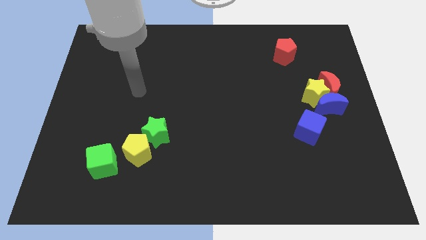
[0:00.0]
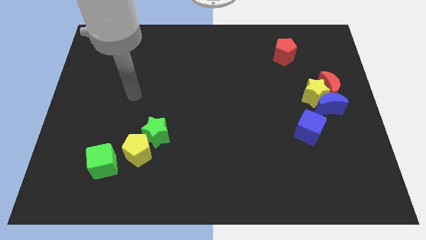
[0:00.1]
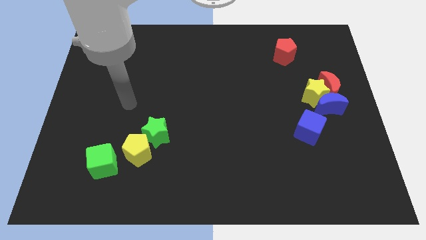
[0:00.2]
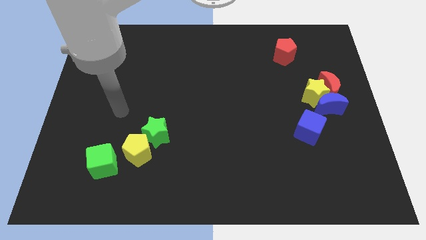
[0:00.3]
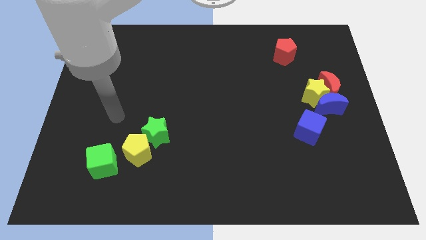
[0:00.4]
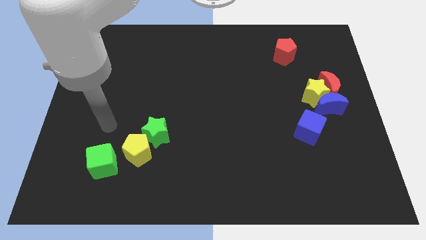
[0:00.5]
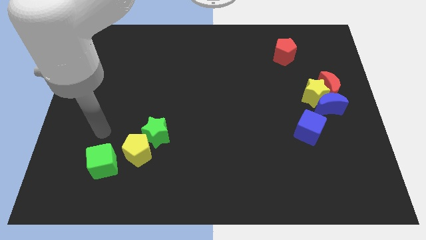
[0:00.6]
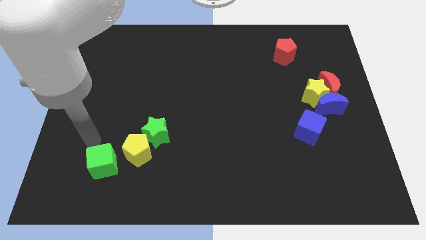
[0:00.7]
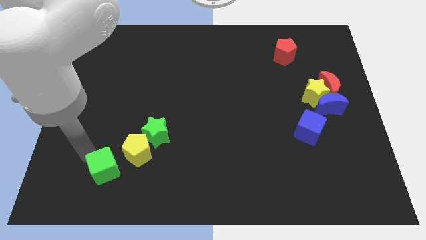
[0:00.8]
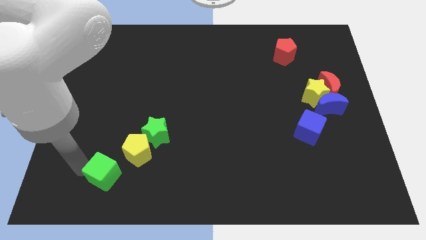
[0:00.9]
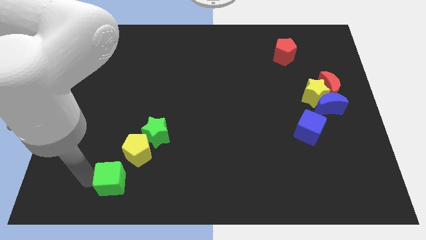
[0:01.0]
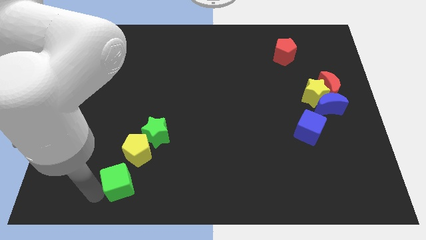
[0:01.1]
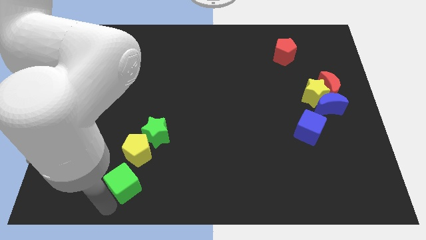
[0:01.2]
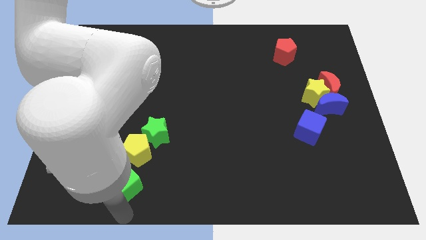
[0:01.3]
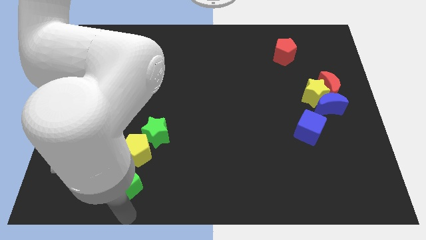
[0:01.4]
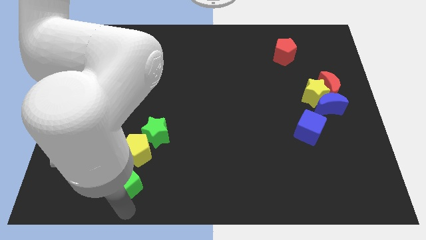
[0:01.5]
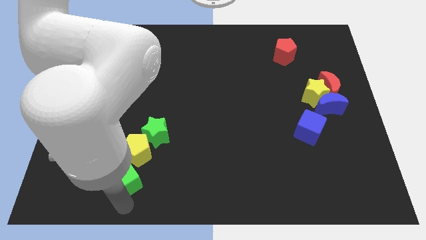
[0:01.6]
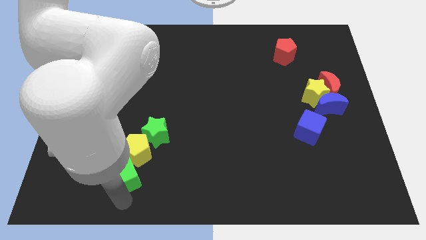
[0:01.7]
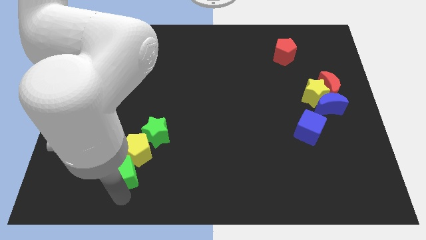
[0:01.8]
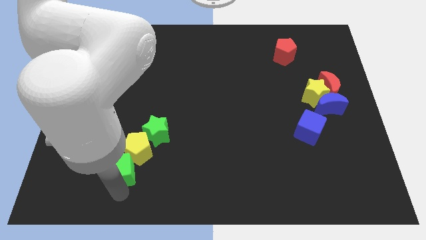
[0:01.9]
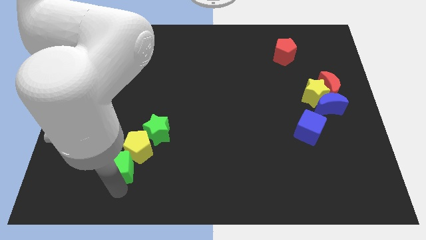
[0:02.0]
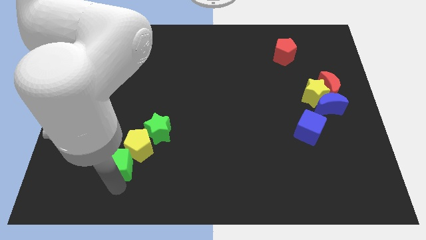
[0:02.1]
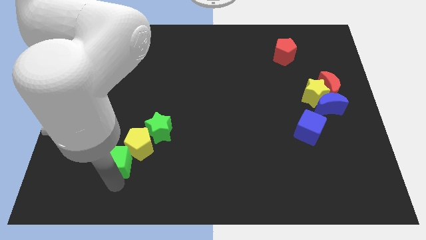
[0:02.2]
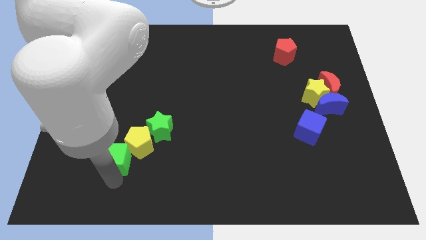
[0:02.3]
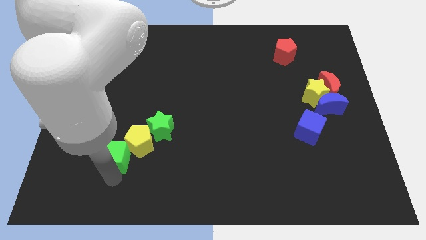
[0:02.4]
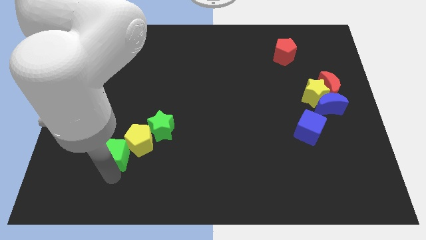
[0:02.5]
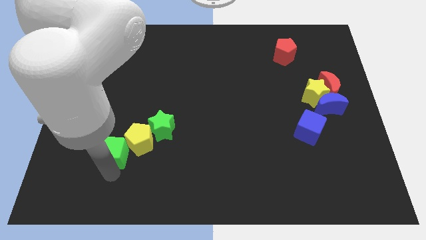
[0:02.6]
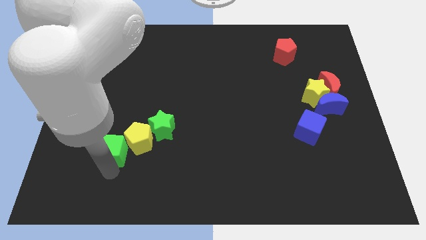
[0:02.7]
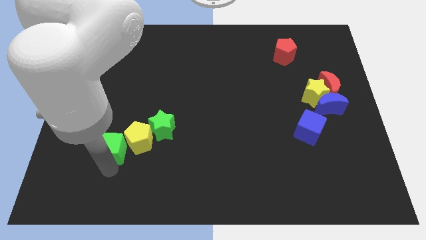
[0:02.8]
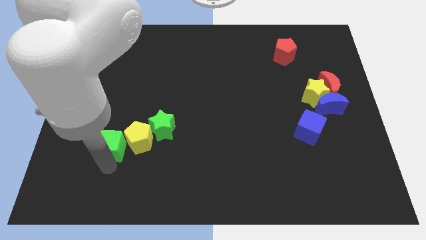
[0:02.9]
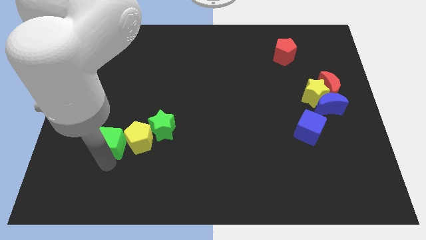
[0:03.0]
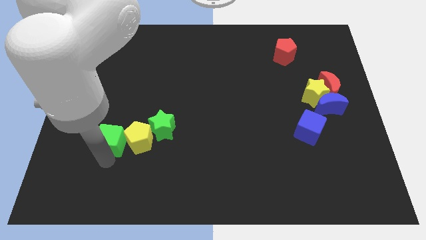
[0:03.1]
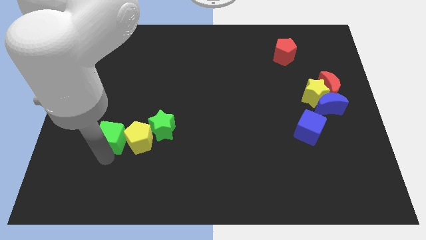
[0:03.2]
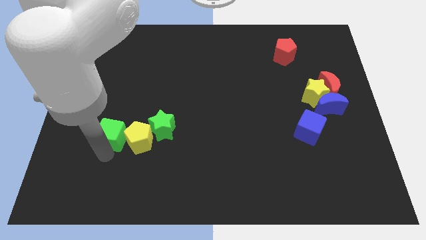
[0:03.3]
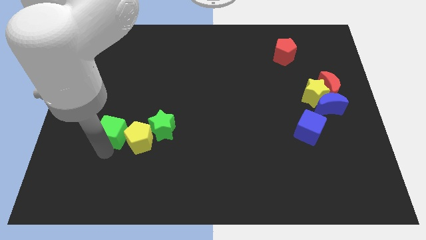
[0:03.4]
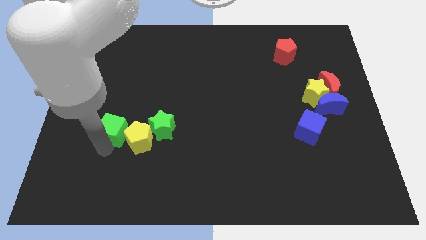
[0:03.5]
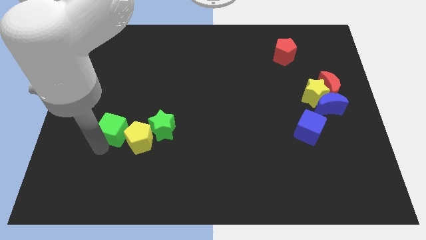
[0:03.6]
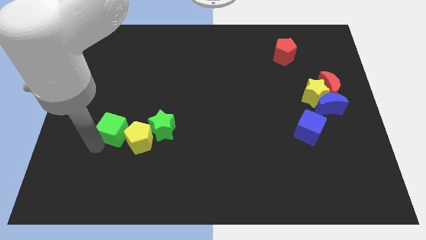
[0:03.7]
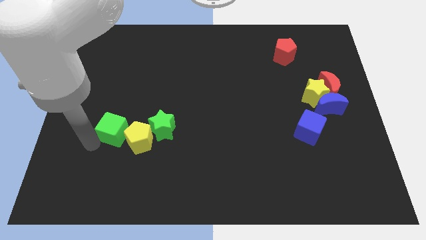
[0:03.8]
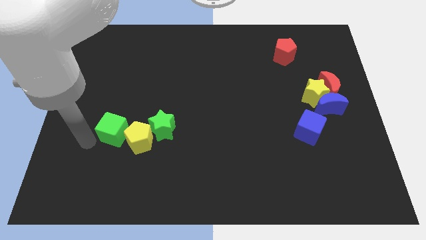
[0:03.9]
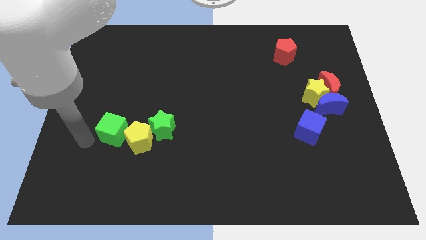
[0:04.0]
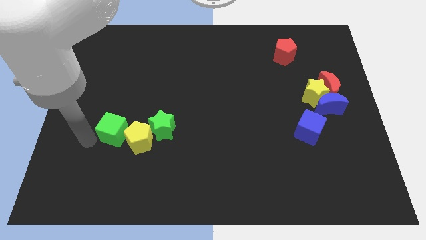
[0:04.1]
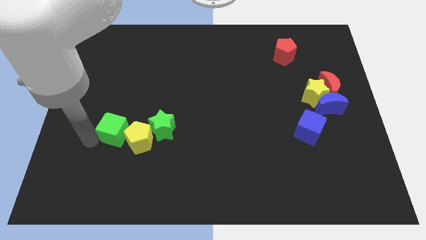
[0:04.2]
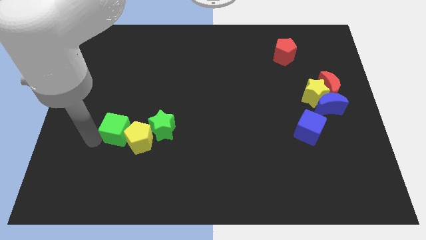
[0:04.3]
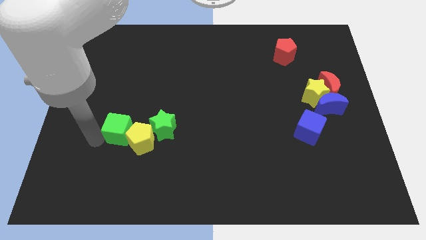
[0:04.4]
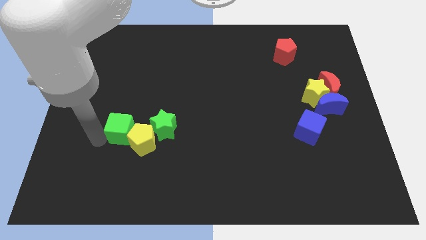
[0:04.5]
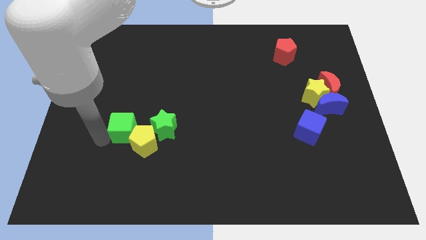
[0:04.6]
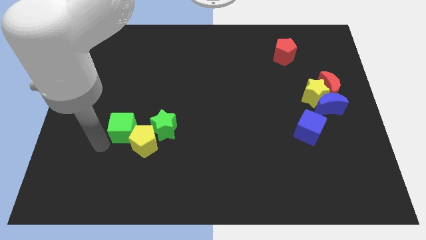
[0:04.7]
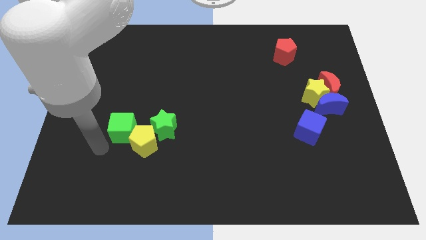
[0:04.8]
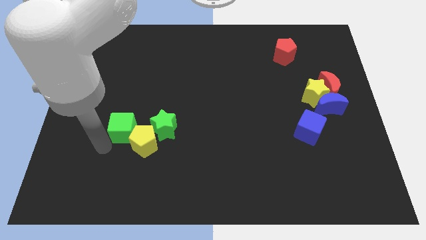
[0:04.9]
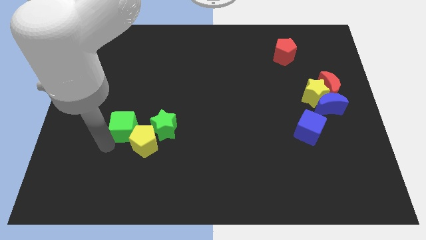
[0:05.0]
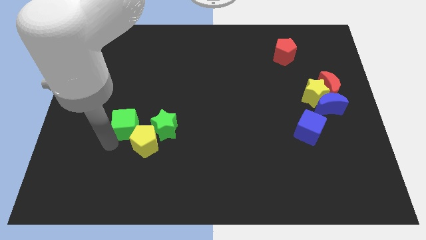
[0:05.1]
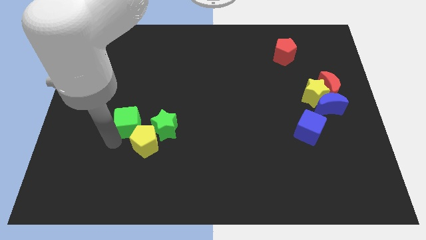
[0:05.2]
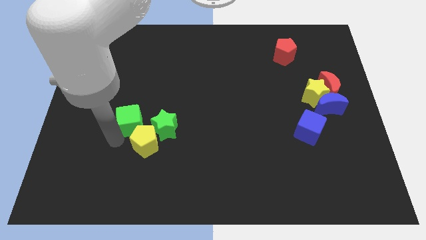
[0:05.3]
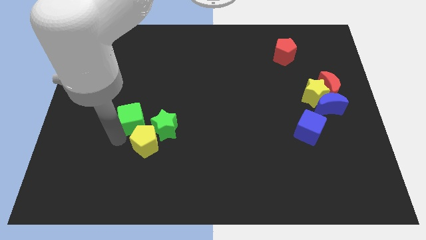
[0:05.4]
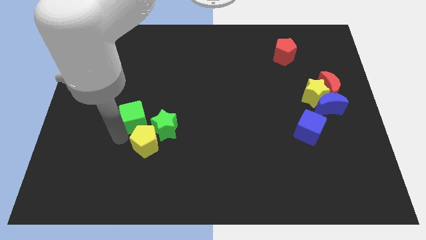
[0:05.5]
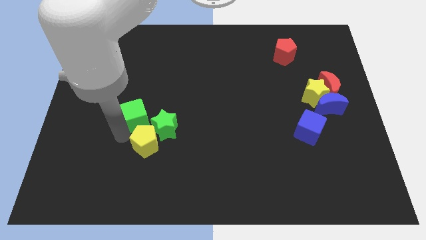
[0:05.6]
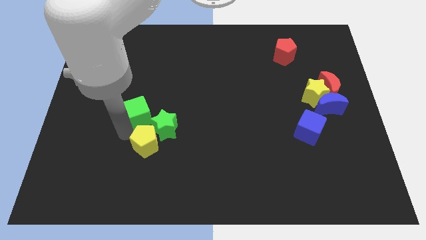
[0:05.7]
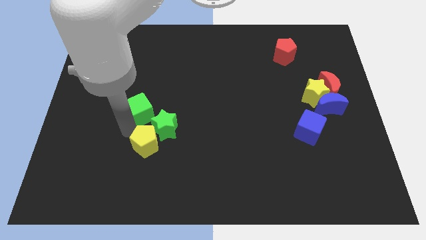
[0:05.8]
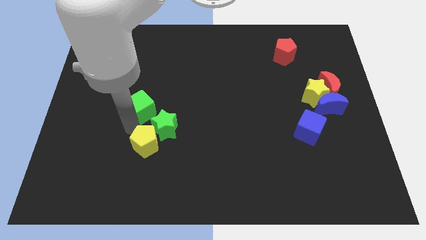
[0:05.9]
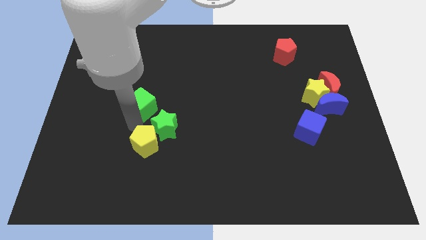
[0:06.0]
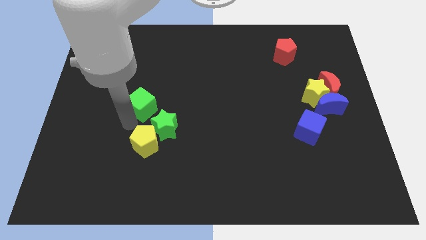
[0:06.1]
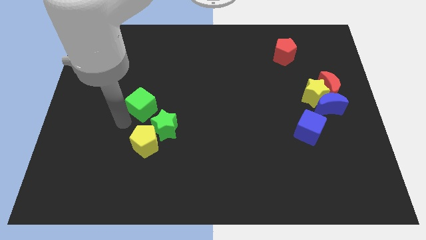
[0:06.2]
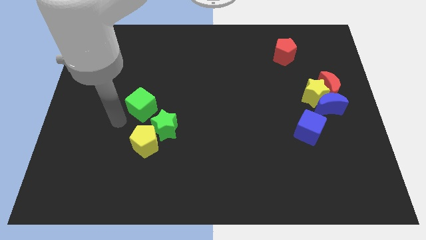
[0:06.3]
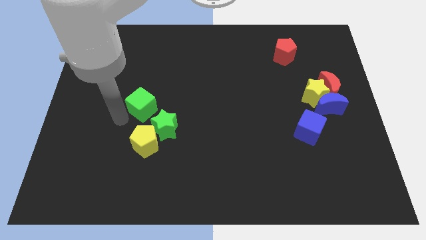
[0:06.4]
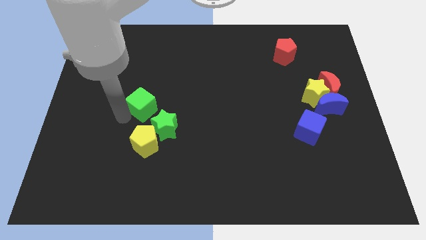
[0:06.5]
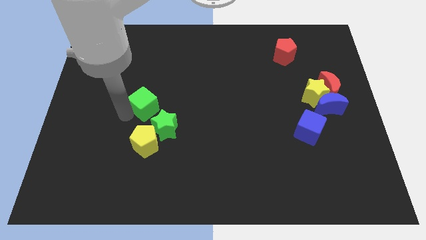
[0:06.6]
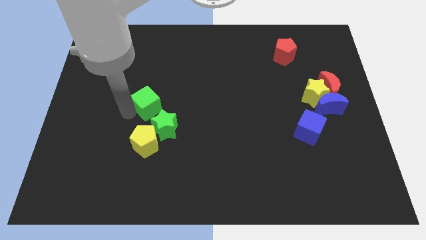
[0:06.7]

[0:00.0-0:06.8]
push the green cube above the green star

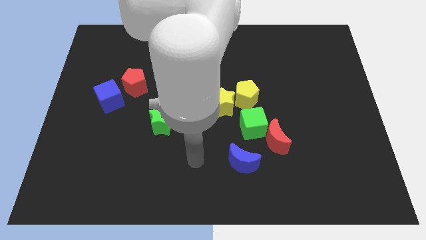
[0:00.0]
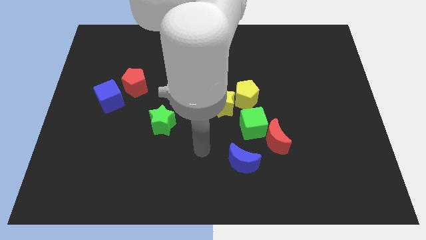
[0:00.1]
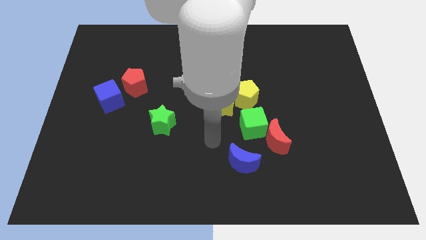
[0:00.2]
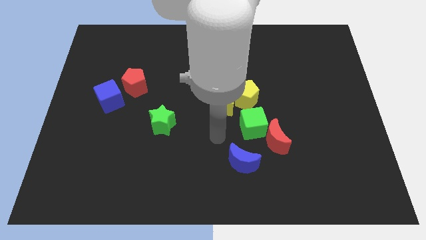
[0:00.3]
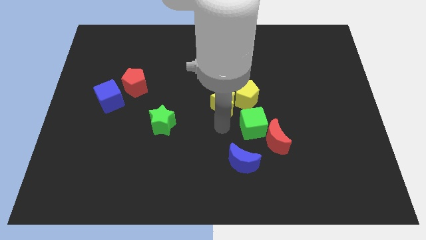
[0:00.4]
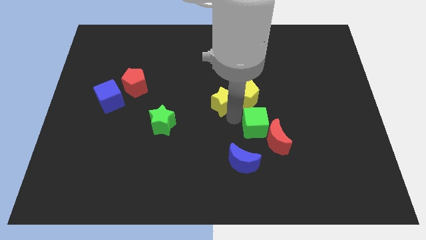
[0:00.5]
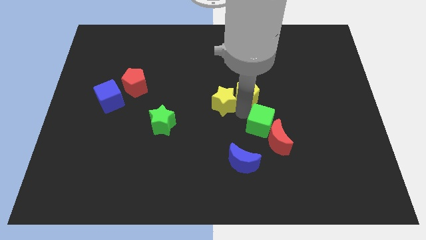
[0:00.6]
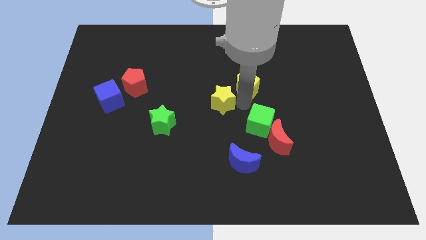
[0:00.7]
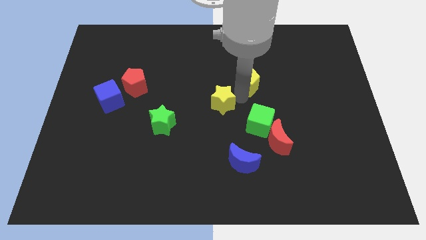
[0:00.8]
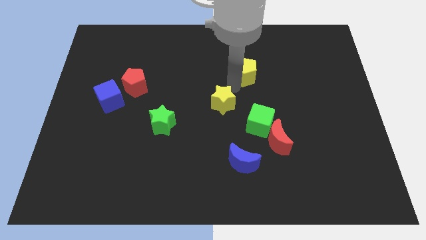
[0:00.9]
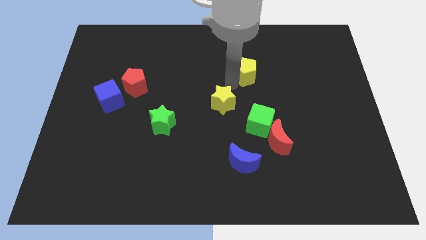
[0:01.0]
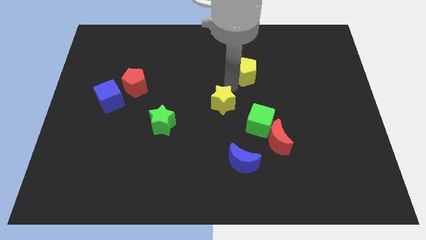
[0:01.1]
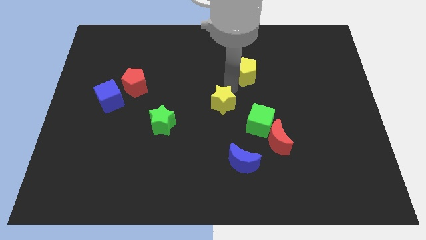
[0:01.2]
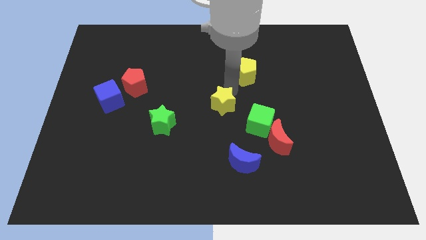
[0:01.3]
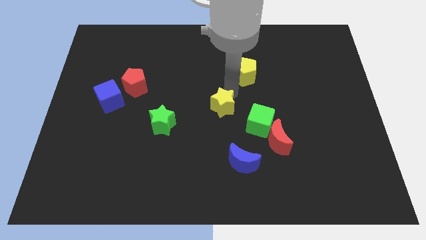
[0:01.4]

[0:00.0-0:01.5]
move the yellow star to the left side of the green cube
